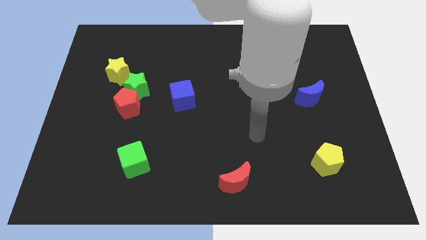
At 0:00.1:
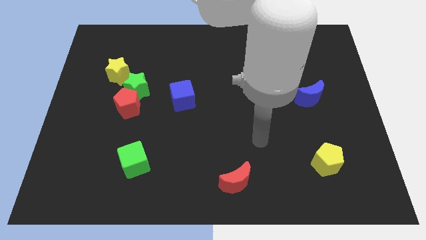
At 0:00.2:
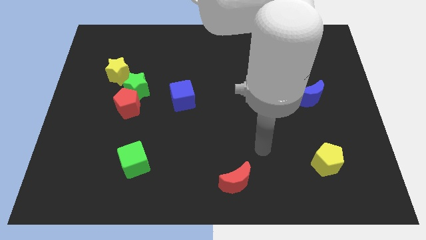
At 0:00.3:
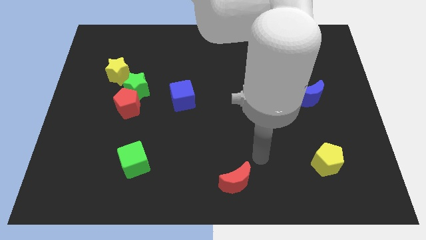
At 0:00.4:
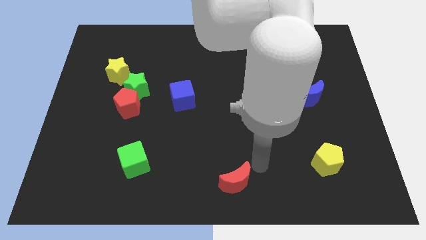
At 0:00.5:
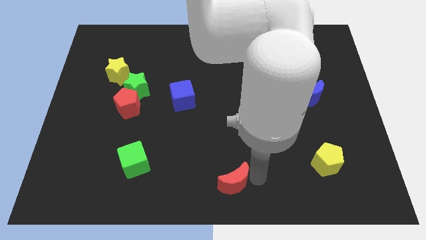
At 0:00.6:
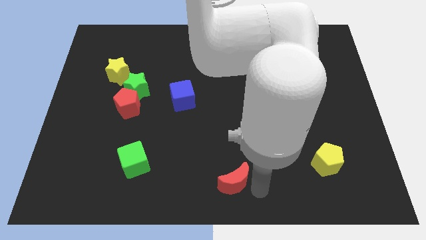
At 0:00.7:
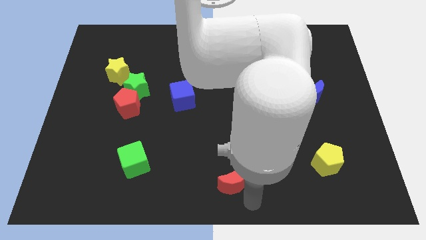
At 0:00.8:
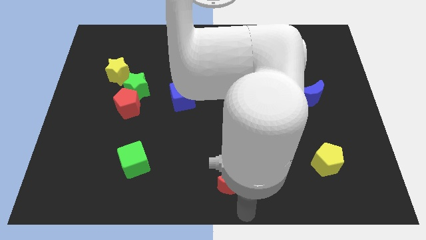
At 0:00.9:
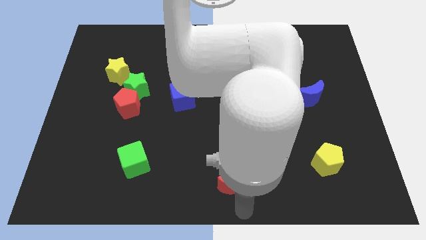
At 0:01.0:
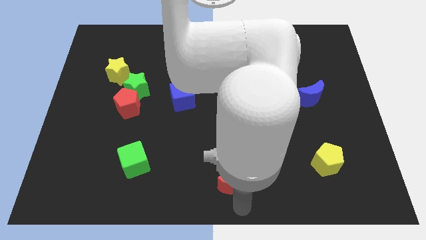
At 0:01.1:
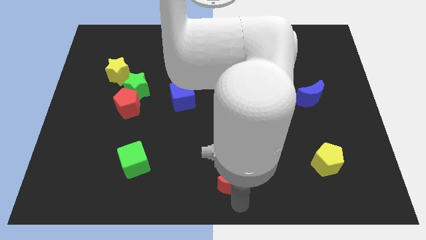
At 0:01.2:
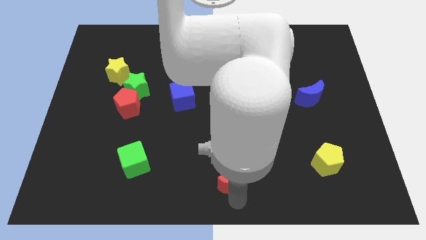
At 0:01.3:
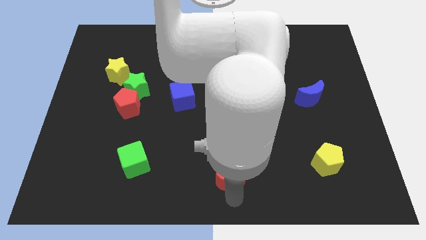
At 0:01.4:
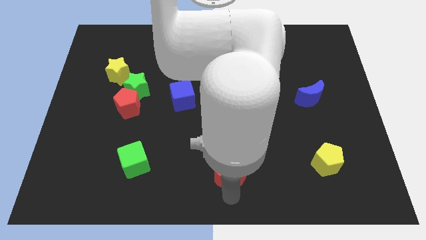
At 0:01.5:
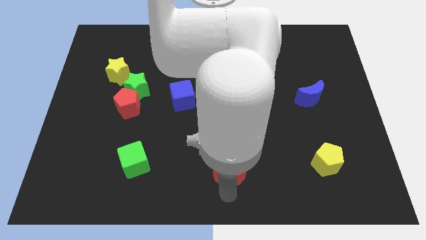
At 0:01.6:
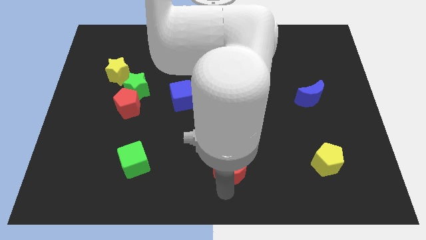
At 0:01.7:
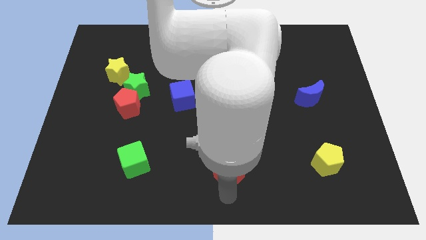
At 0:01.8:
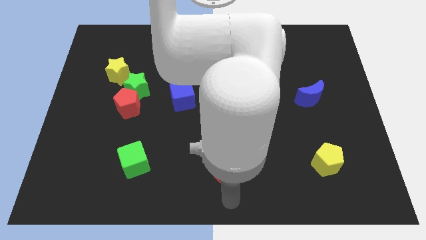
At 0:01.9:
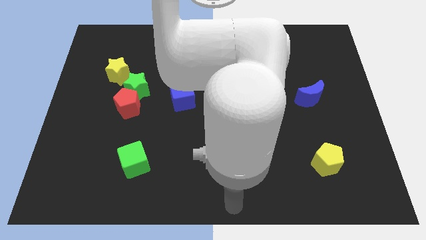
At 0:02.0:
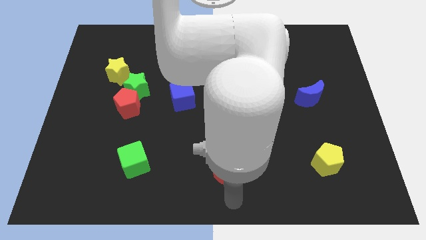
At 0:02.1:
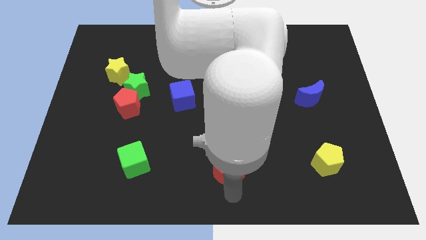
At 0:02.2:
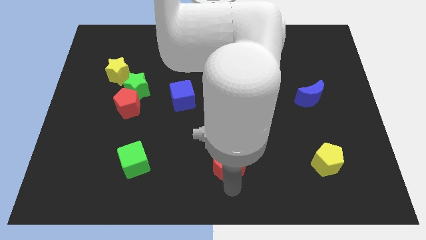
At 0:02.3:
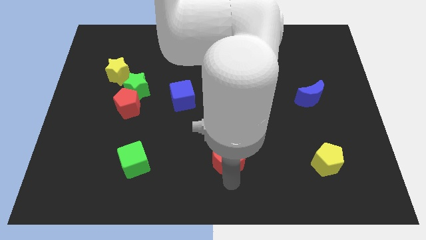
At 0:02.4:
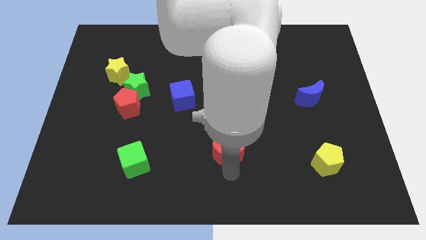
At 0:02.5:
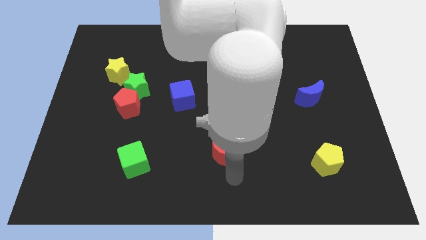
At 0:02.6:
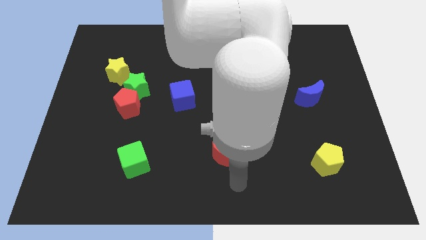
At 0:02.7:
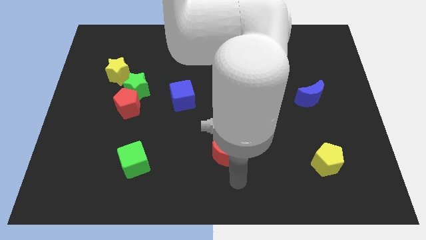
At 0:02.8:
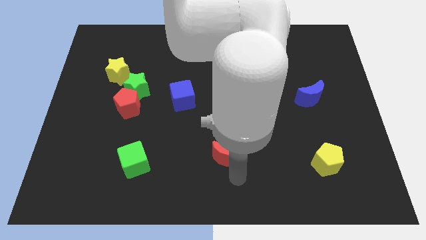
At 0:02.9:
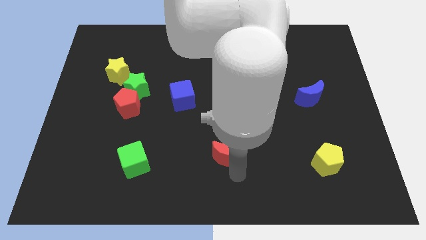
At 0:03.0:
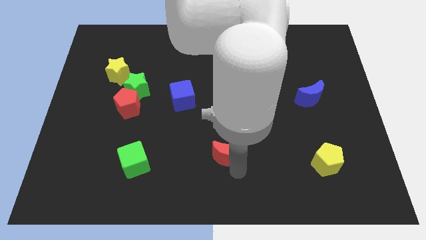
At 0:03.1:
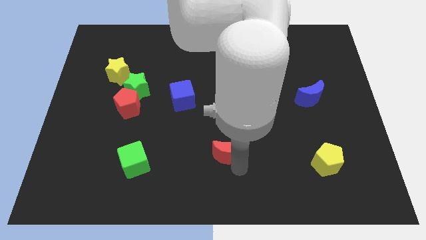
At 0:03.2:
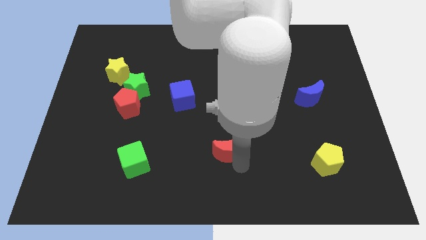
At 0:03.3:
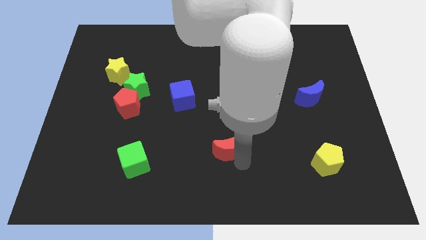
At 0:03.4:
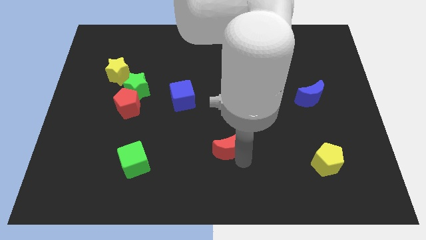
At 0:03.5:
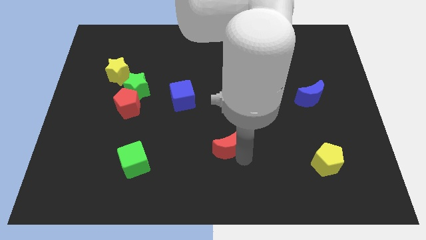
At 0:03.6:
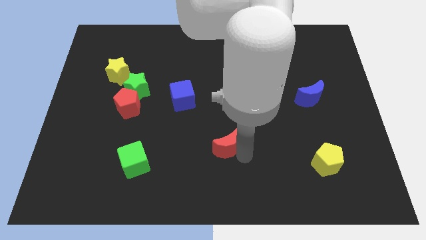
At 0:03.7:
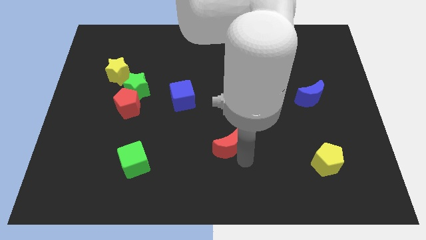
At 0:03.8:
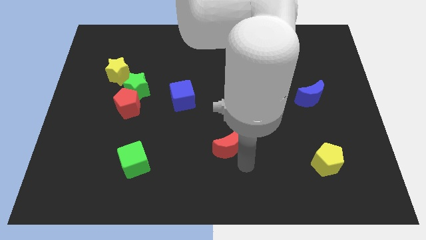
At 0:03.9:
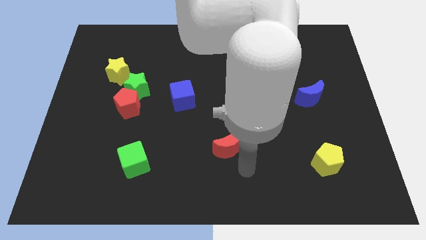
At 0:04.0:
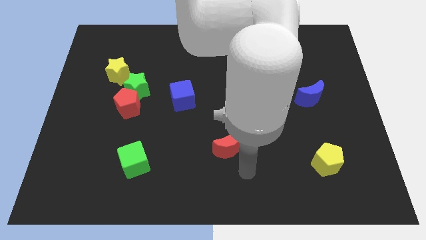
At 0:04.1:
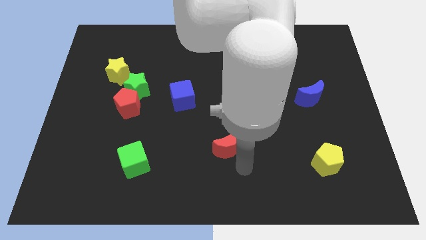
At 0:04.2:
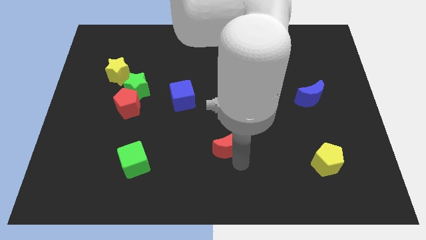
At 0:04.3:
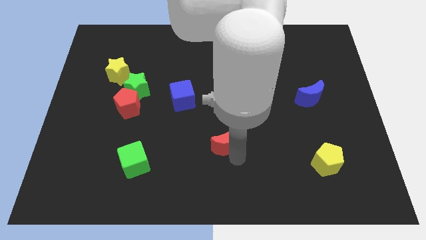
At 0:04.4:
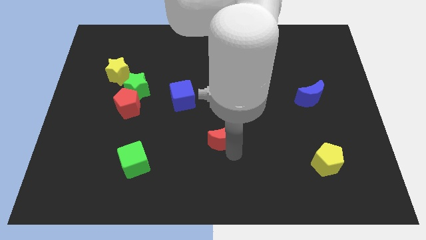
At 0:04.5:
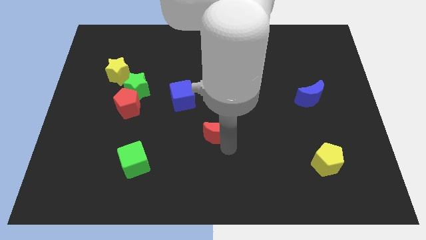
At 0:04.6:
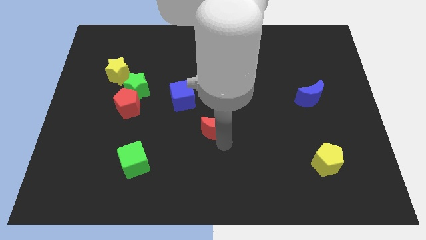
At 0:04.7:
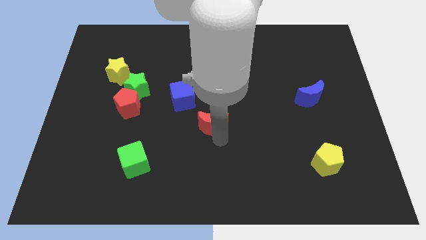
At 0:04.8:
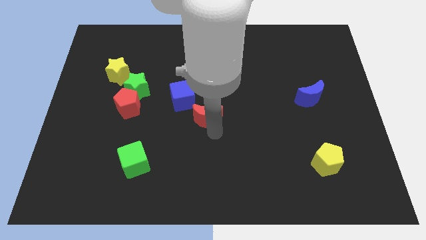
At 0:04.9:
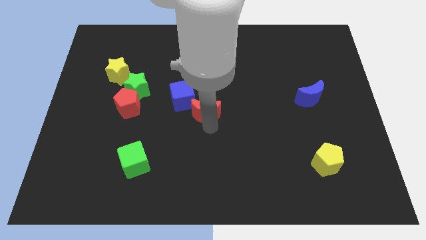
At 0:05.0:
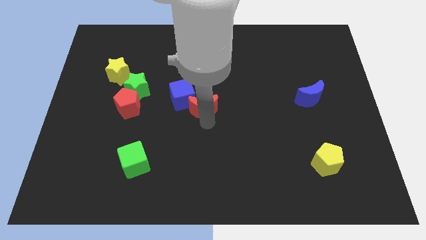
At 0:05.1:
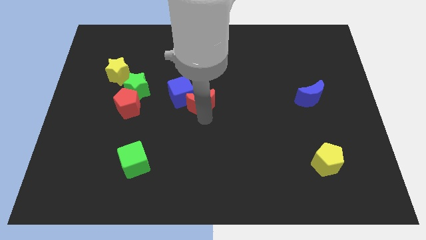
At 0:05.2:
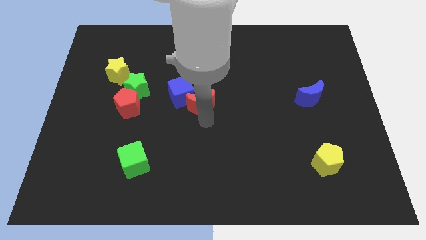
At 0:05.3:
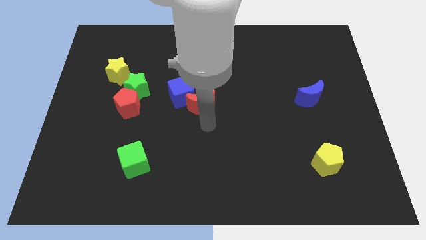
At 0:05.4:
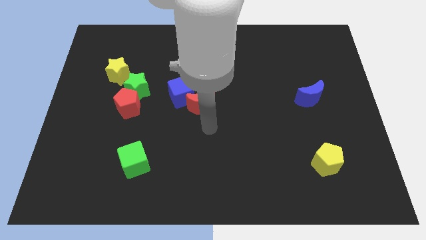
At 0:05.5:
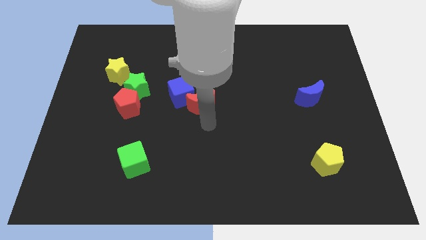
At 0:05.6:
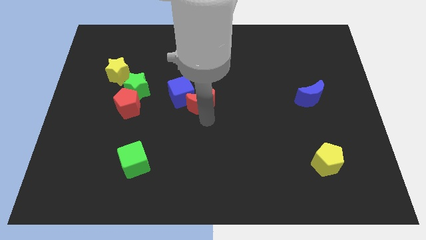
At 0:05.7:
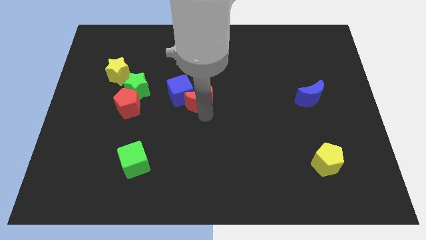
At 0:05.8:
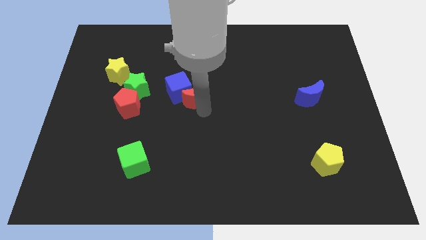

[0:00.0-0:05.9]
put the red moon just right of the green star

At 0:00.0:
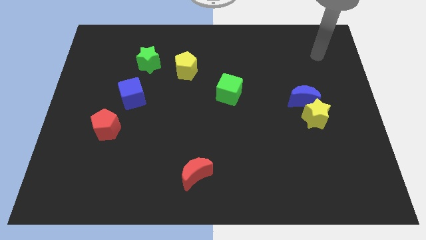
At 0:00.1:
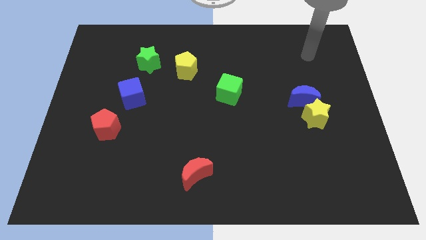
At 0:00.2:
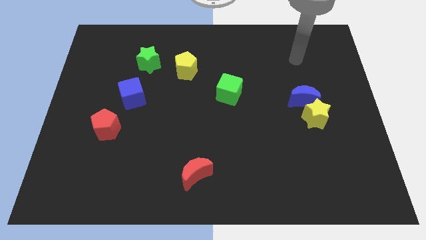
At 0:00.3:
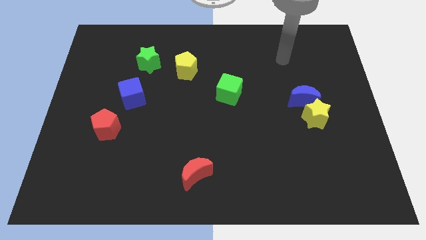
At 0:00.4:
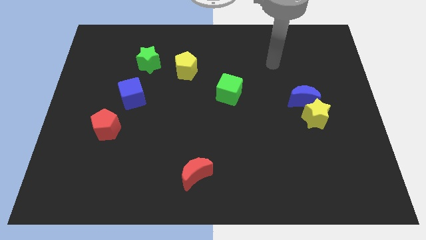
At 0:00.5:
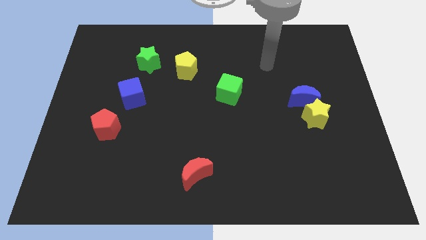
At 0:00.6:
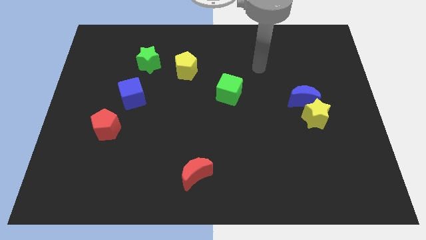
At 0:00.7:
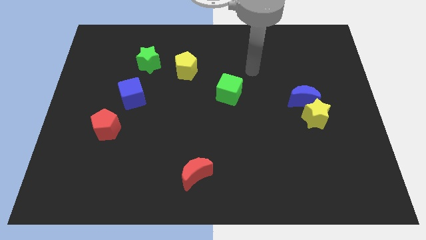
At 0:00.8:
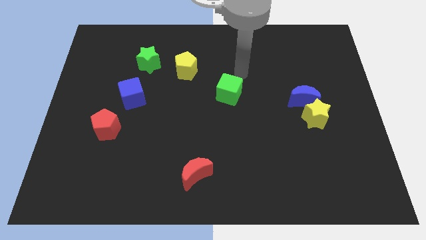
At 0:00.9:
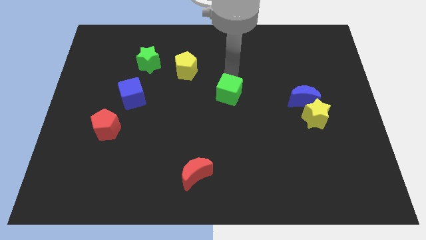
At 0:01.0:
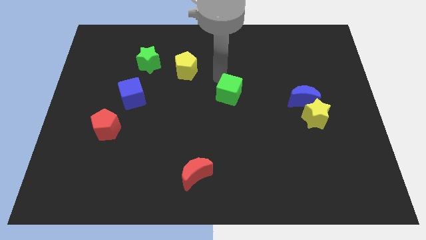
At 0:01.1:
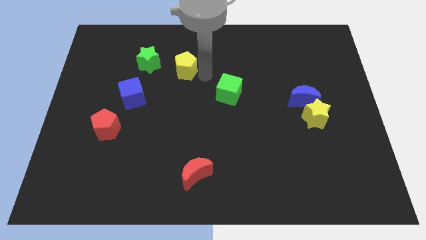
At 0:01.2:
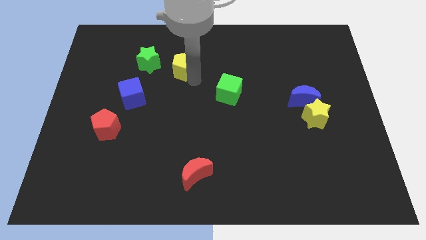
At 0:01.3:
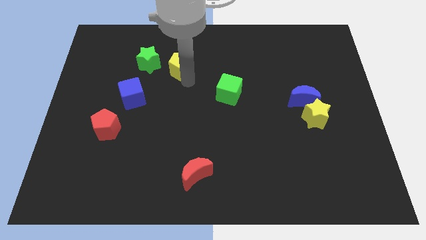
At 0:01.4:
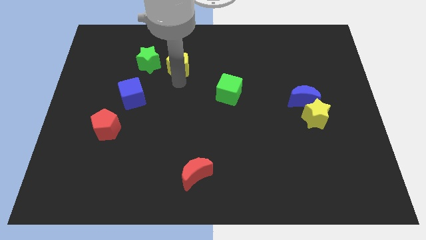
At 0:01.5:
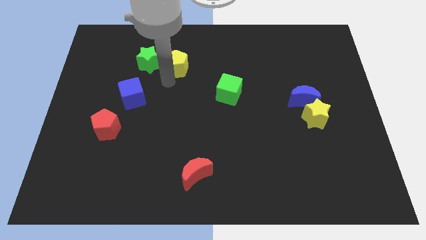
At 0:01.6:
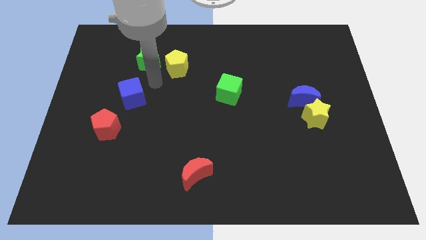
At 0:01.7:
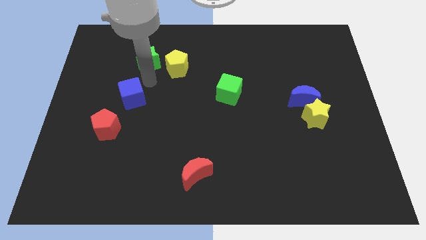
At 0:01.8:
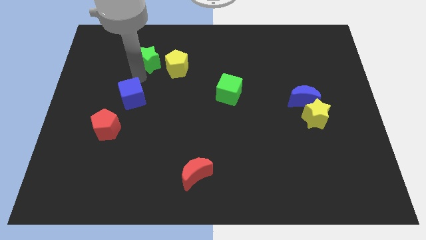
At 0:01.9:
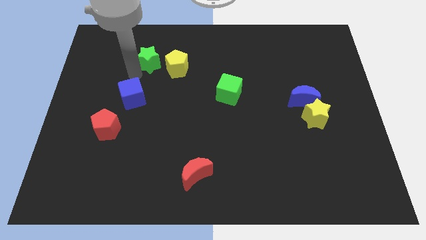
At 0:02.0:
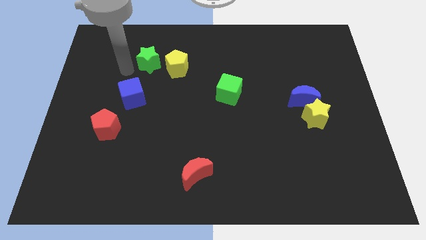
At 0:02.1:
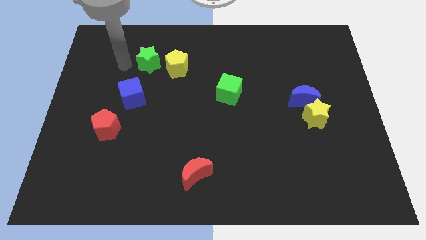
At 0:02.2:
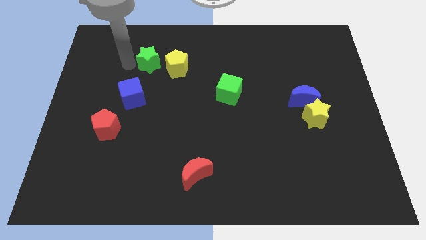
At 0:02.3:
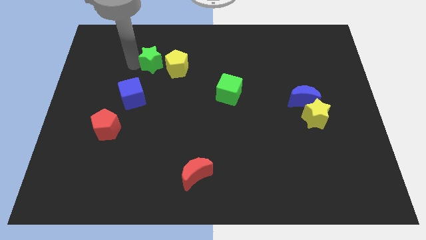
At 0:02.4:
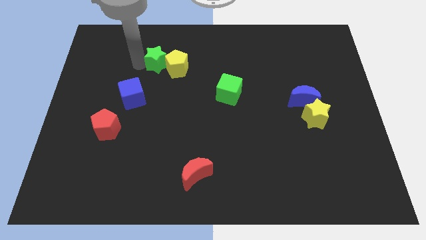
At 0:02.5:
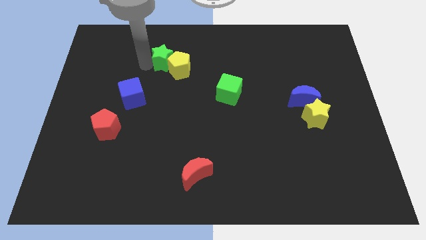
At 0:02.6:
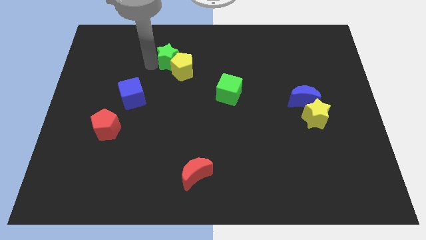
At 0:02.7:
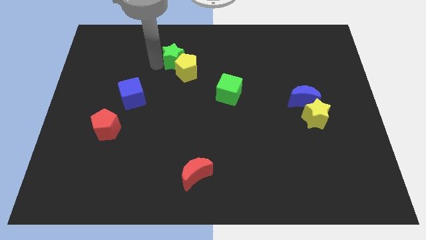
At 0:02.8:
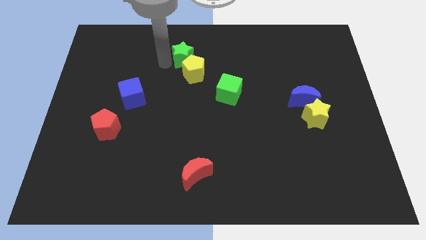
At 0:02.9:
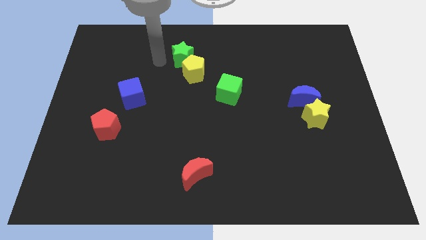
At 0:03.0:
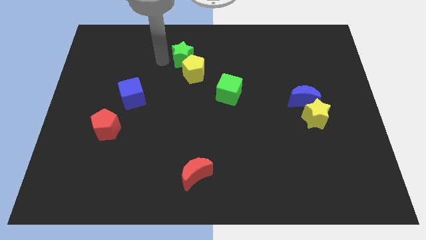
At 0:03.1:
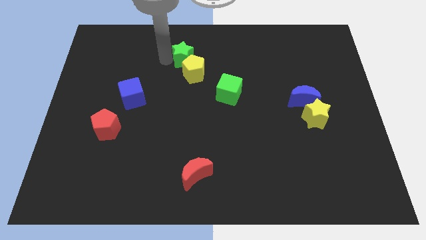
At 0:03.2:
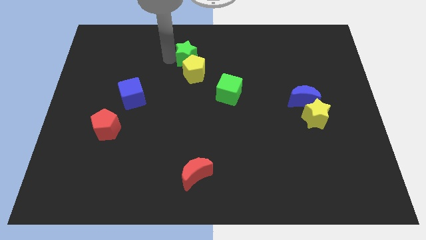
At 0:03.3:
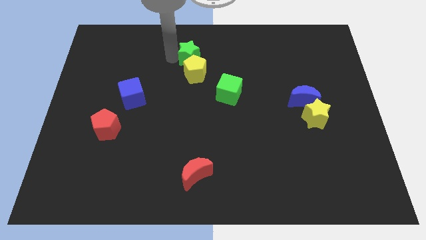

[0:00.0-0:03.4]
move the green star diagonally up and to the right of the yellow pentagon
